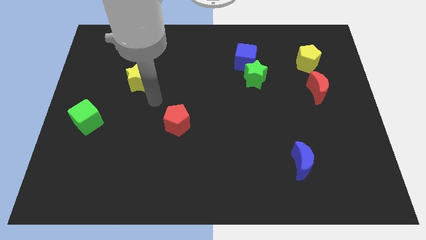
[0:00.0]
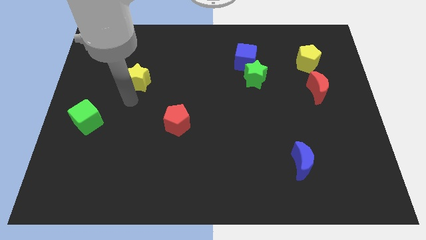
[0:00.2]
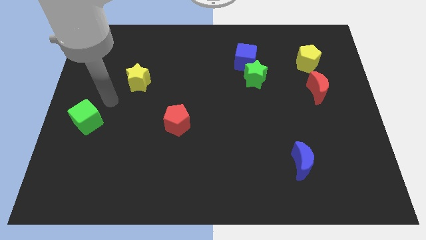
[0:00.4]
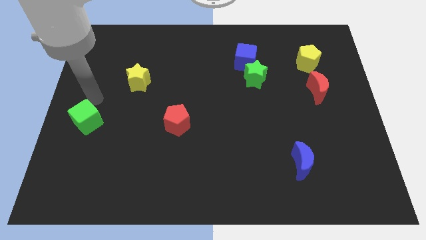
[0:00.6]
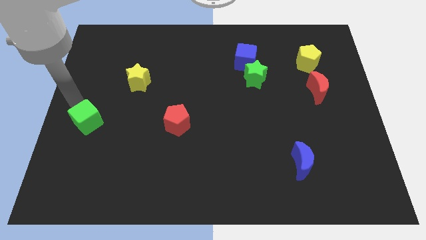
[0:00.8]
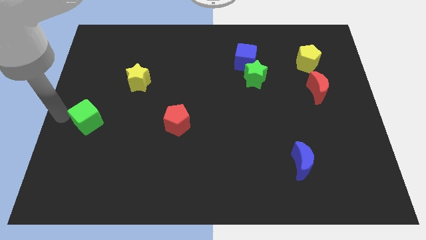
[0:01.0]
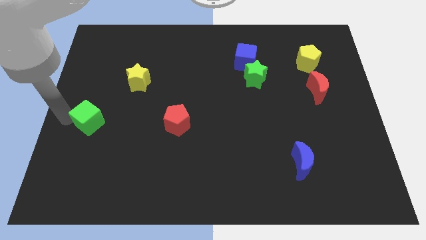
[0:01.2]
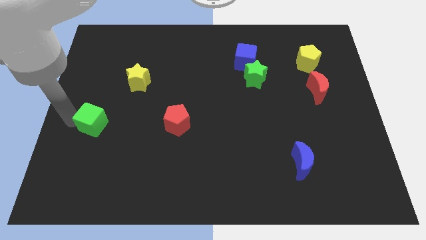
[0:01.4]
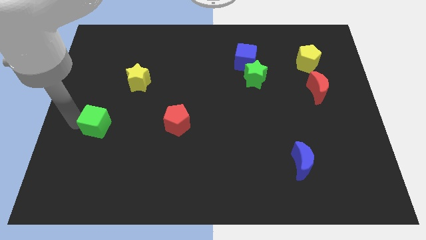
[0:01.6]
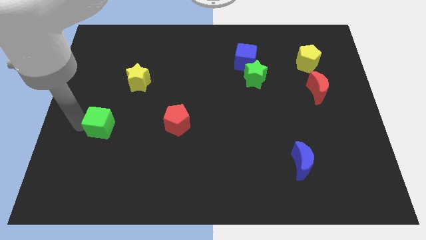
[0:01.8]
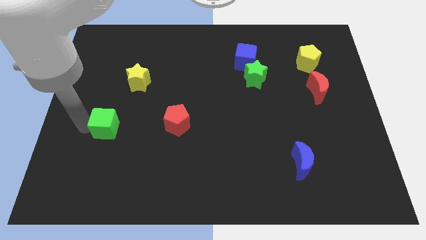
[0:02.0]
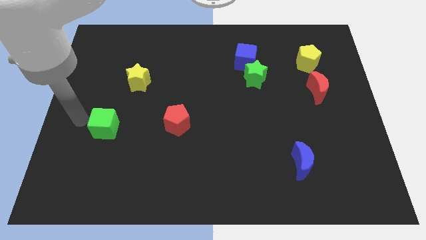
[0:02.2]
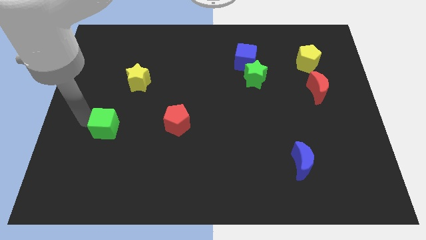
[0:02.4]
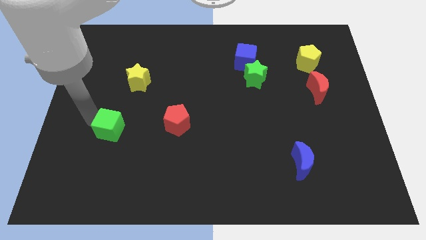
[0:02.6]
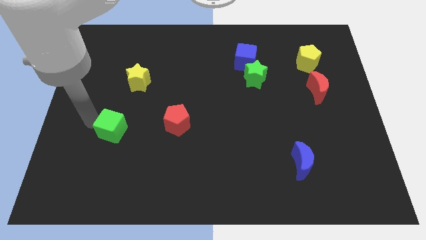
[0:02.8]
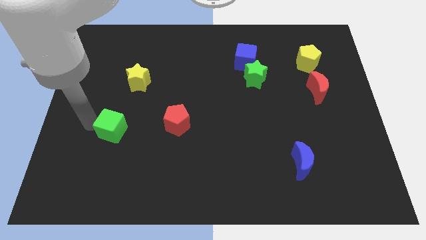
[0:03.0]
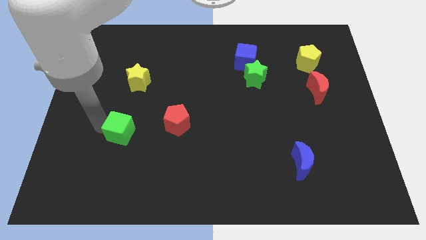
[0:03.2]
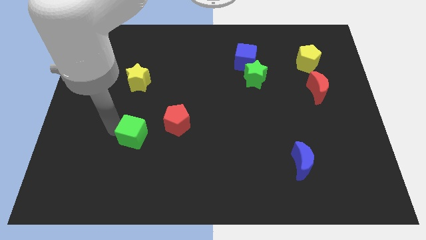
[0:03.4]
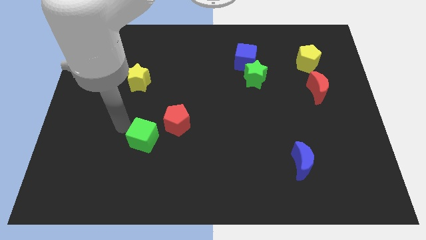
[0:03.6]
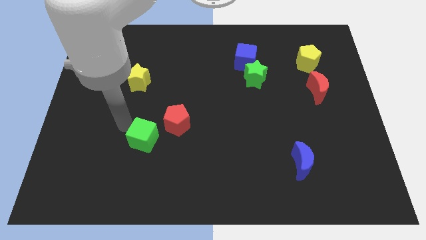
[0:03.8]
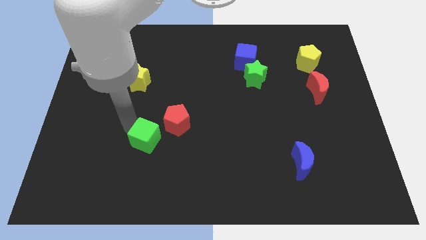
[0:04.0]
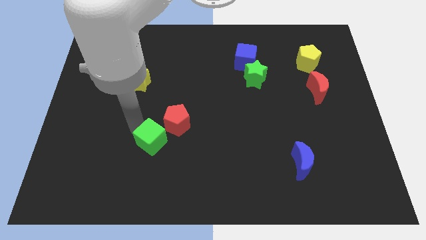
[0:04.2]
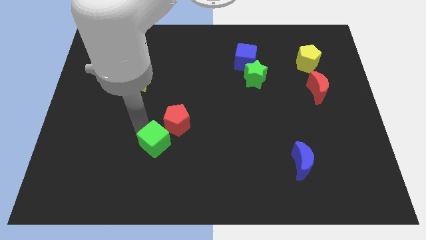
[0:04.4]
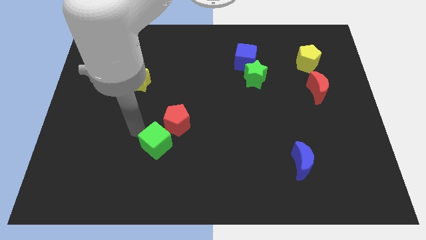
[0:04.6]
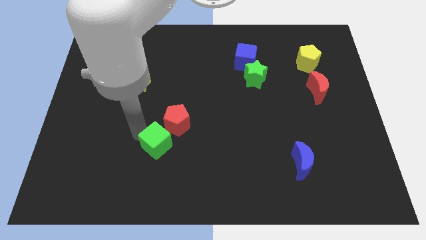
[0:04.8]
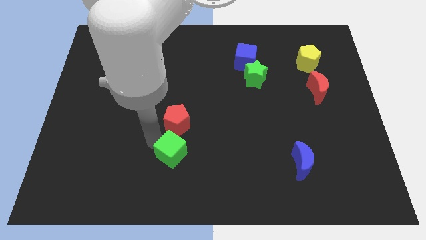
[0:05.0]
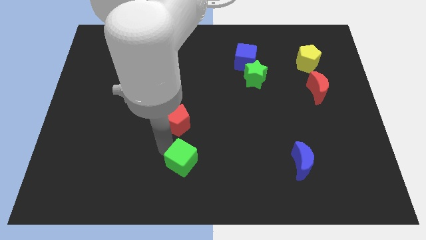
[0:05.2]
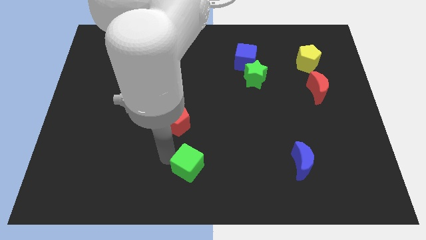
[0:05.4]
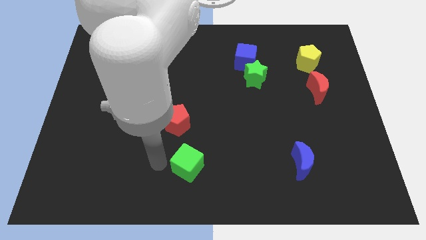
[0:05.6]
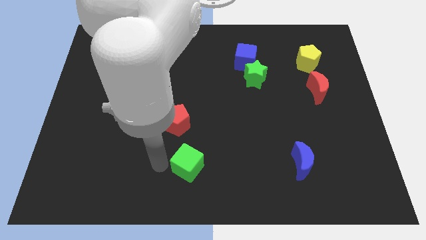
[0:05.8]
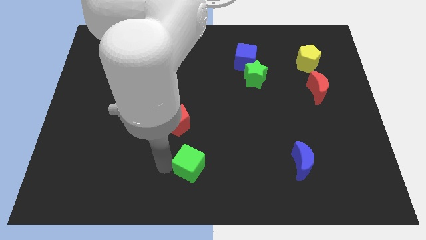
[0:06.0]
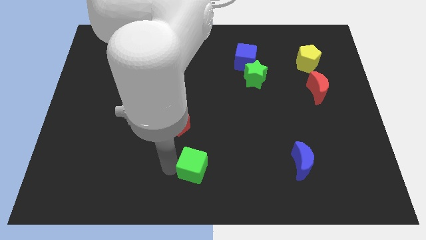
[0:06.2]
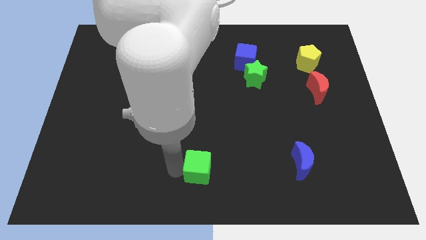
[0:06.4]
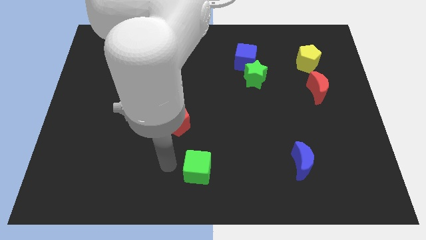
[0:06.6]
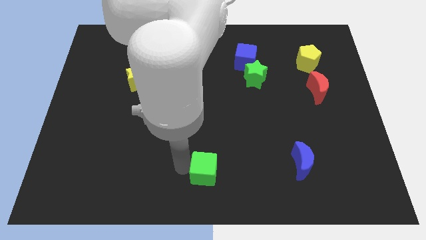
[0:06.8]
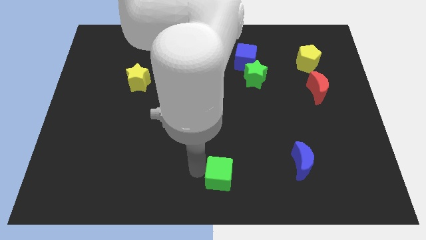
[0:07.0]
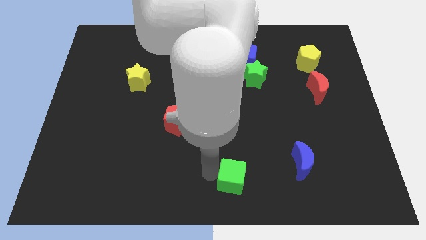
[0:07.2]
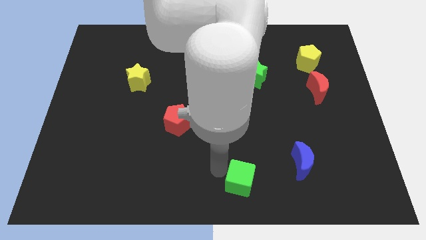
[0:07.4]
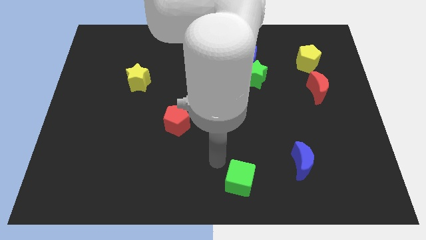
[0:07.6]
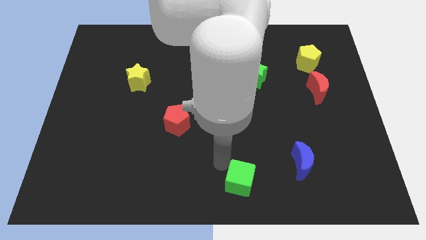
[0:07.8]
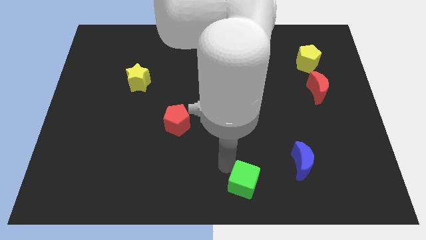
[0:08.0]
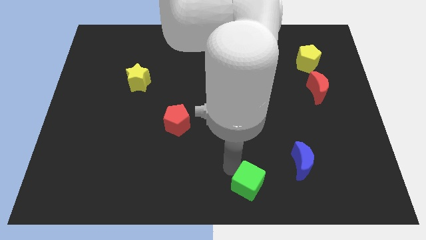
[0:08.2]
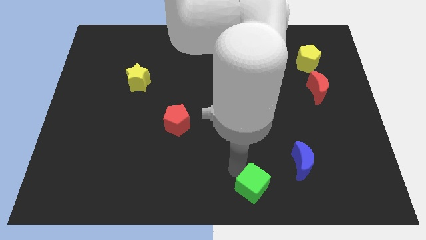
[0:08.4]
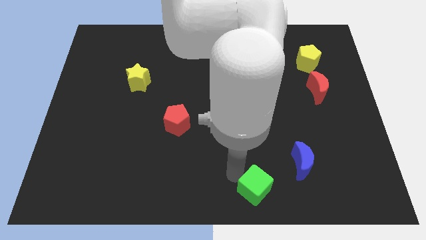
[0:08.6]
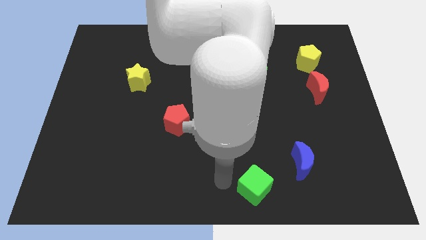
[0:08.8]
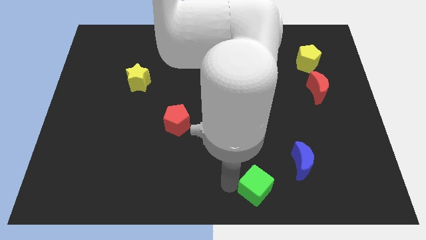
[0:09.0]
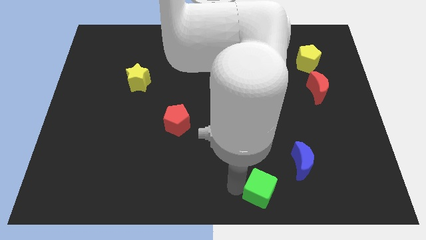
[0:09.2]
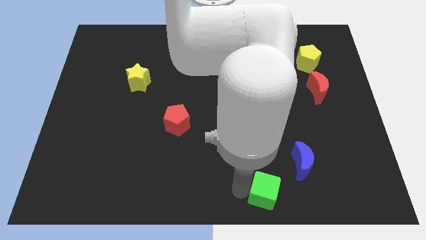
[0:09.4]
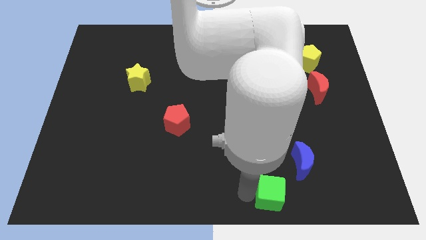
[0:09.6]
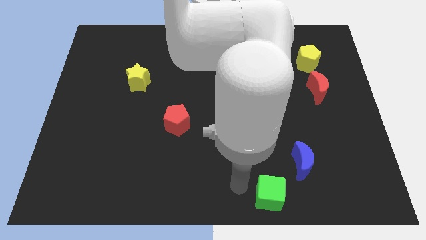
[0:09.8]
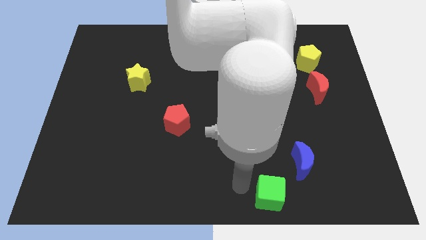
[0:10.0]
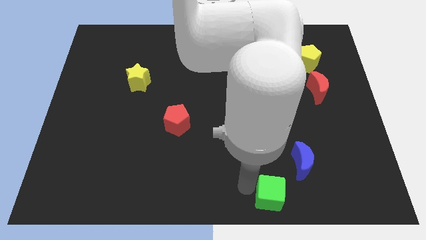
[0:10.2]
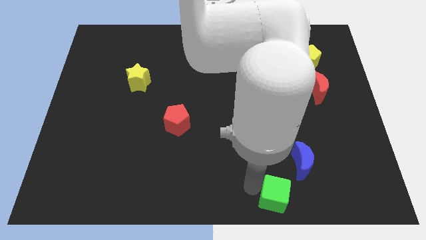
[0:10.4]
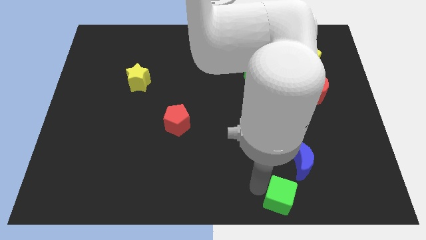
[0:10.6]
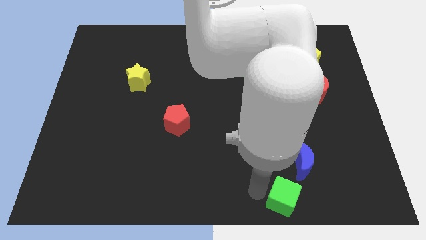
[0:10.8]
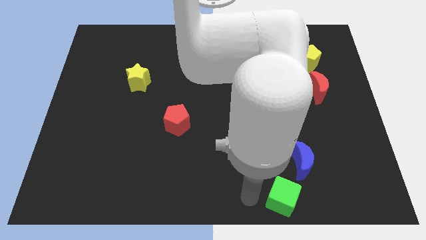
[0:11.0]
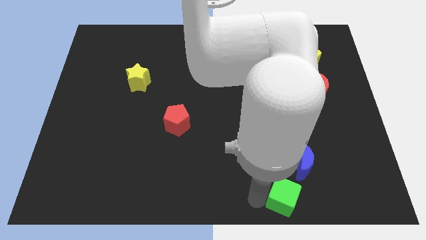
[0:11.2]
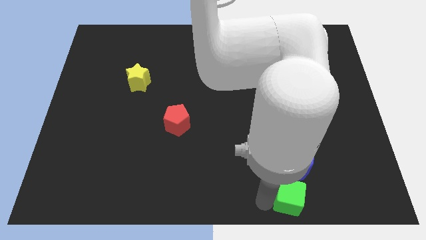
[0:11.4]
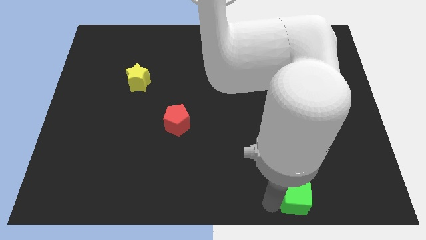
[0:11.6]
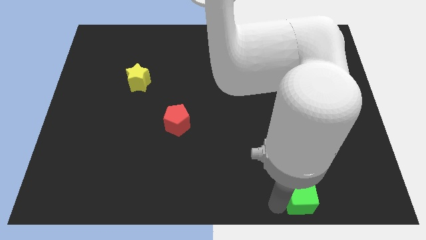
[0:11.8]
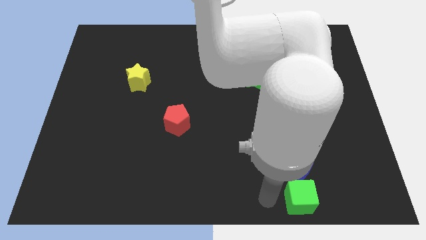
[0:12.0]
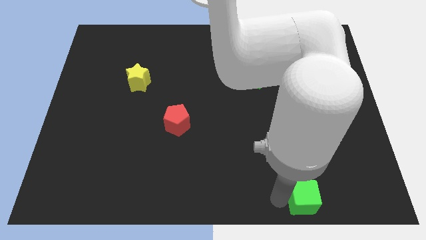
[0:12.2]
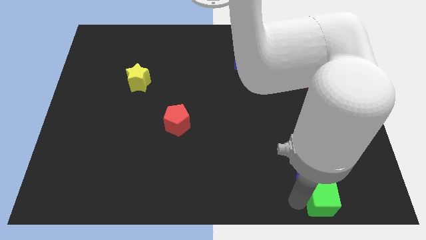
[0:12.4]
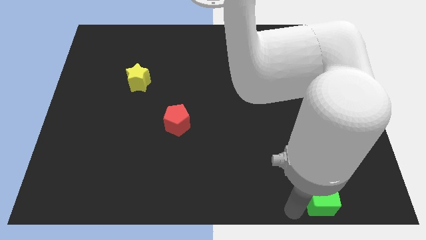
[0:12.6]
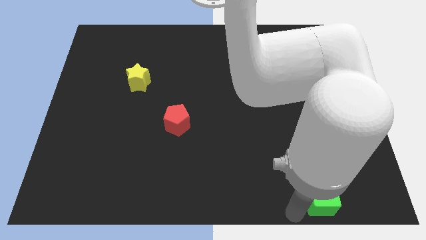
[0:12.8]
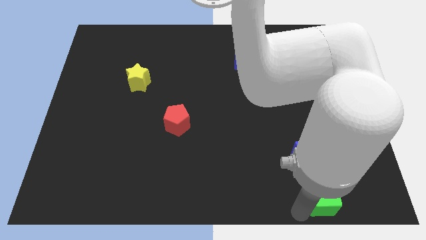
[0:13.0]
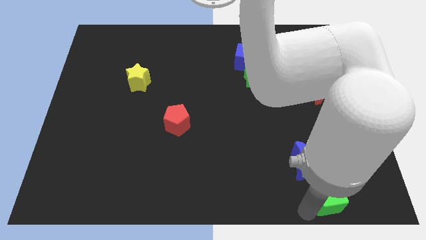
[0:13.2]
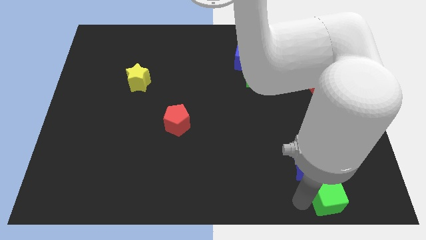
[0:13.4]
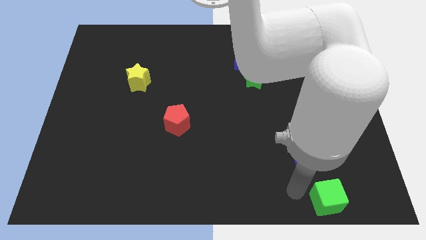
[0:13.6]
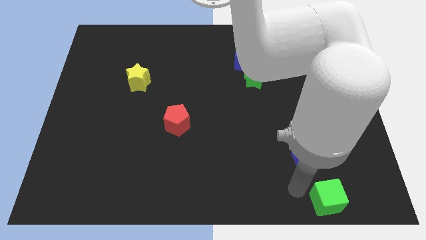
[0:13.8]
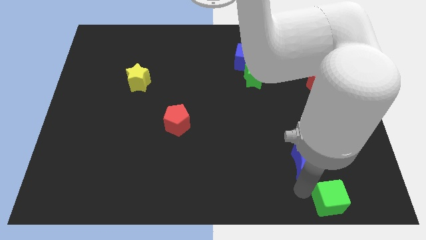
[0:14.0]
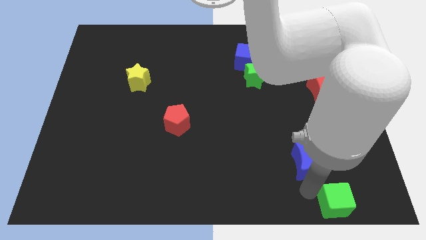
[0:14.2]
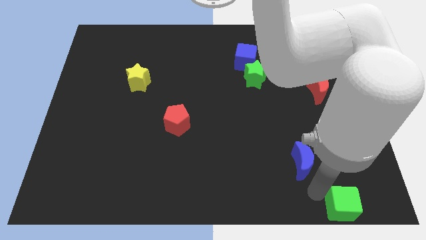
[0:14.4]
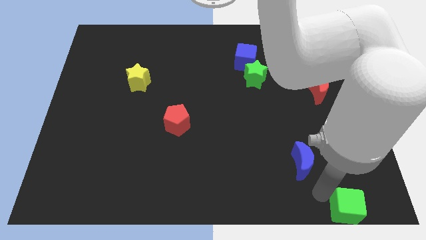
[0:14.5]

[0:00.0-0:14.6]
slide the green cube to the lower right corner

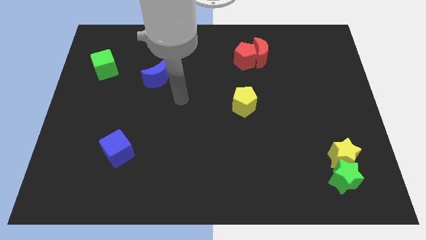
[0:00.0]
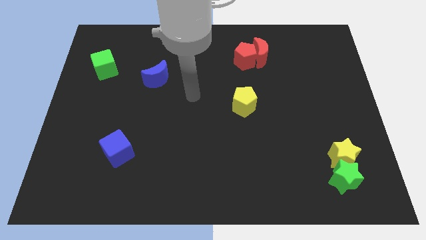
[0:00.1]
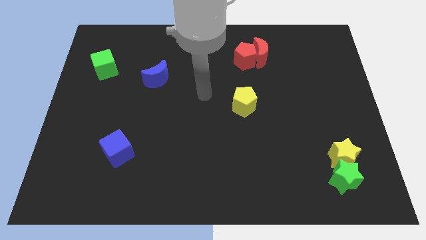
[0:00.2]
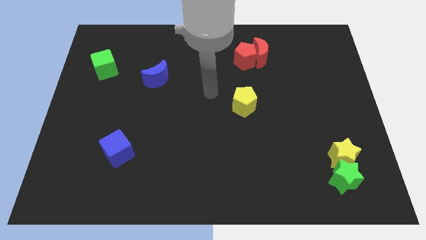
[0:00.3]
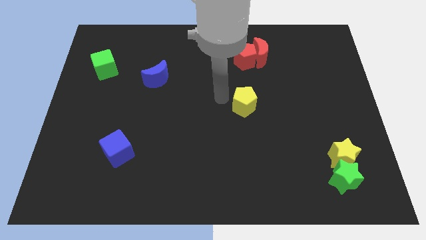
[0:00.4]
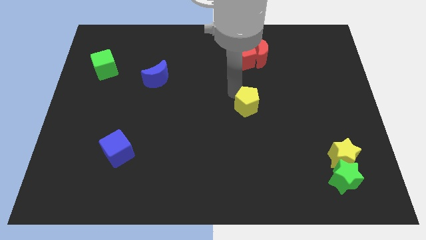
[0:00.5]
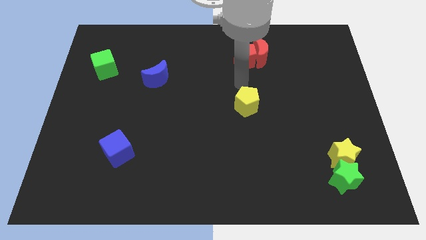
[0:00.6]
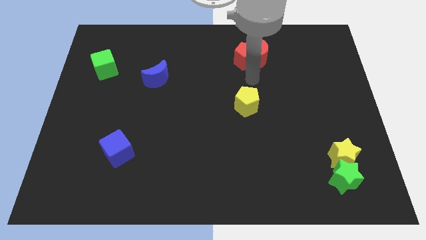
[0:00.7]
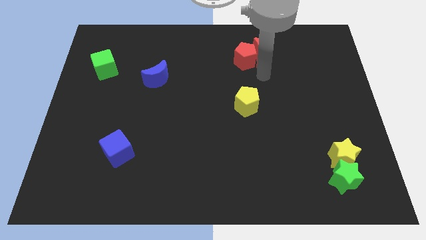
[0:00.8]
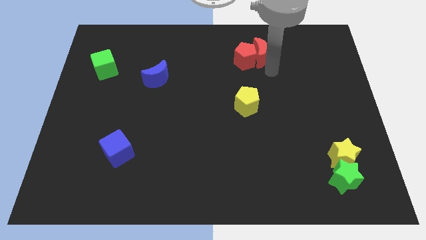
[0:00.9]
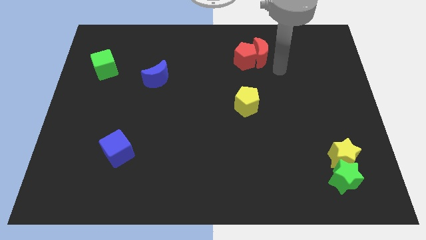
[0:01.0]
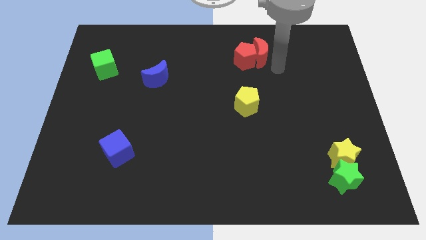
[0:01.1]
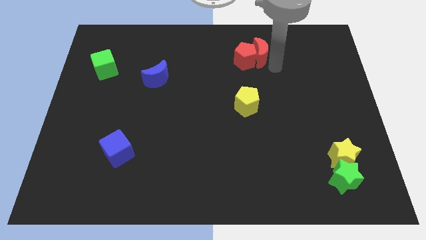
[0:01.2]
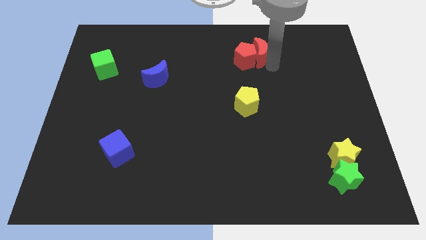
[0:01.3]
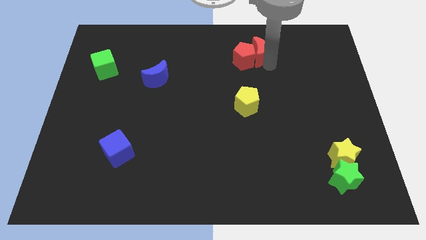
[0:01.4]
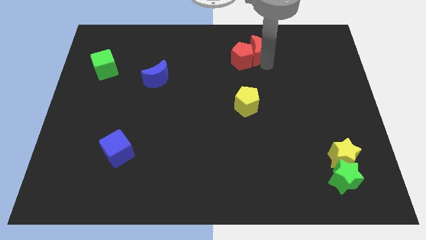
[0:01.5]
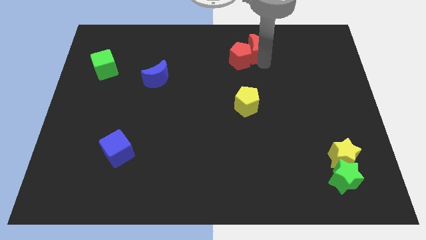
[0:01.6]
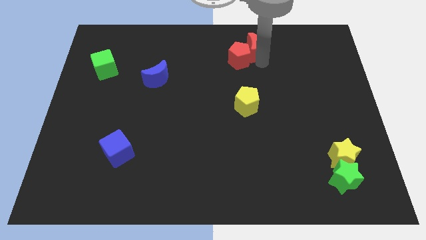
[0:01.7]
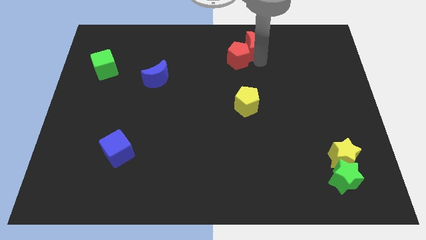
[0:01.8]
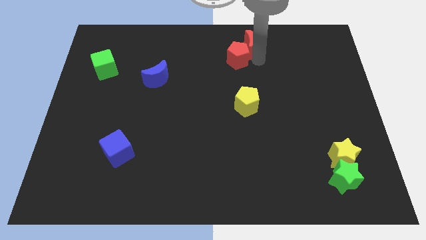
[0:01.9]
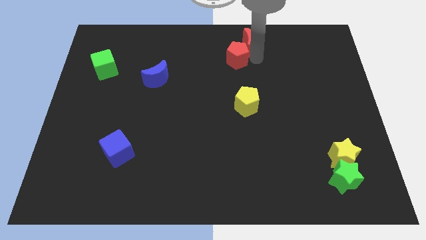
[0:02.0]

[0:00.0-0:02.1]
put the red moon to the towards your base
